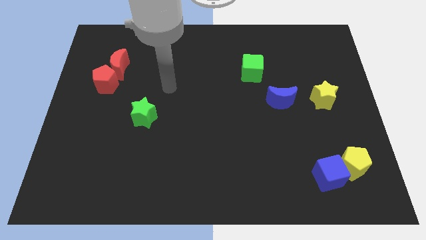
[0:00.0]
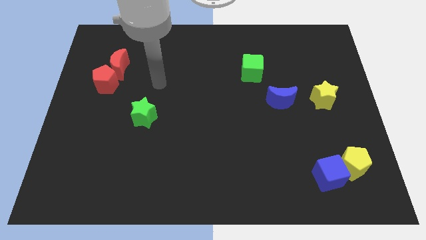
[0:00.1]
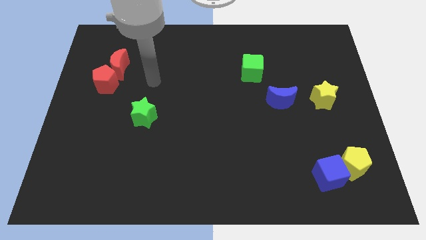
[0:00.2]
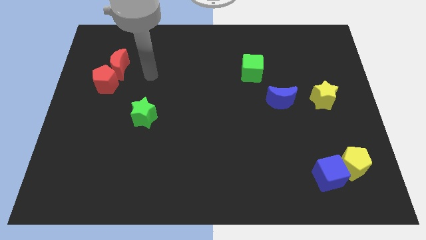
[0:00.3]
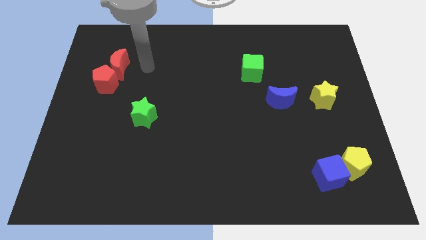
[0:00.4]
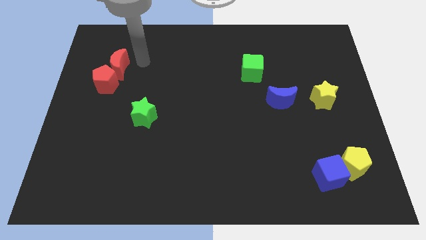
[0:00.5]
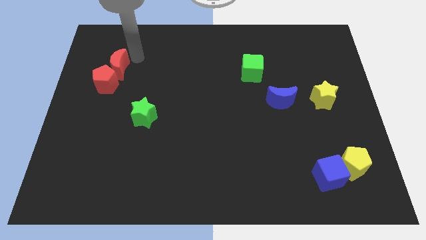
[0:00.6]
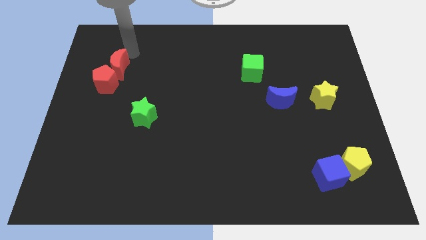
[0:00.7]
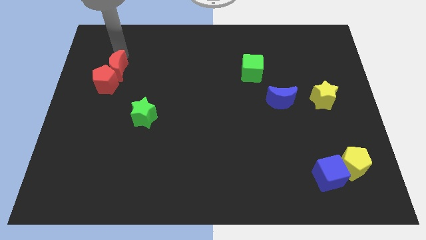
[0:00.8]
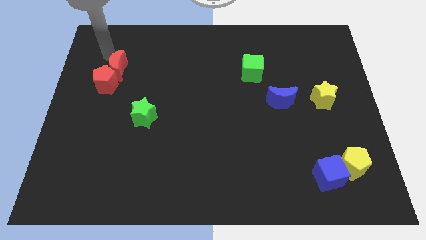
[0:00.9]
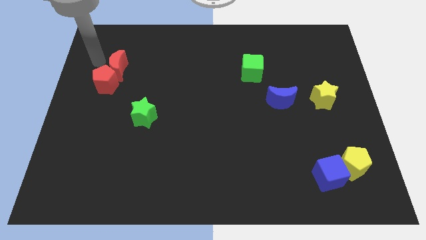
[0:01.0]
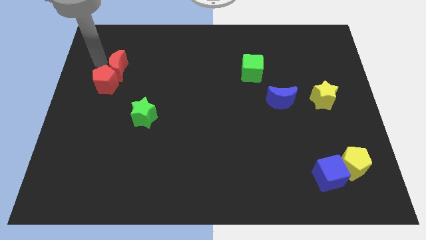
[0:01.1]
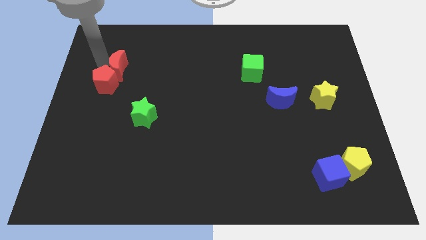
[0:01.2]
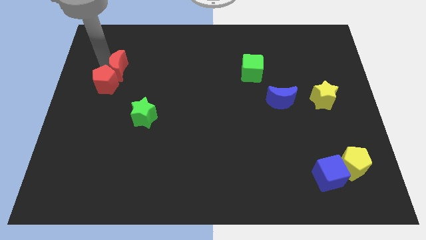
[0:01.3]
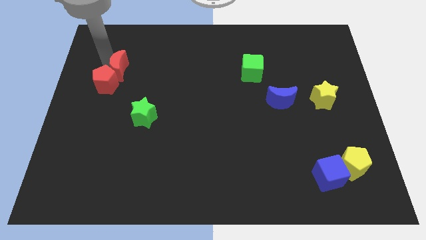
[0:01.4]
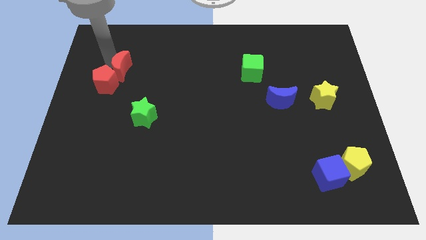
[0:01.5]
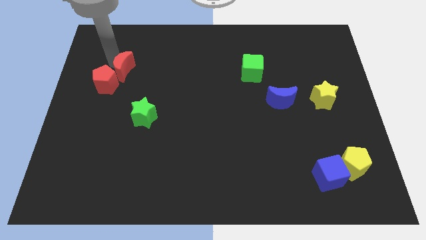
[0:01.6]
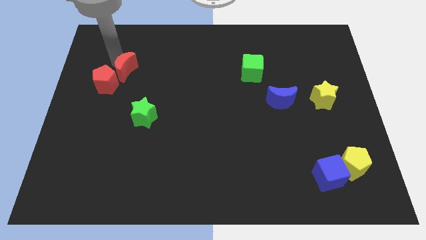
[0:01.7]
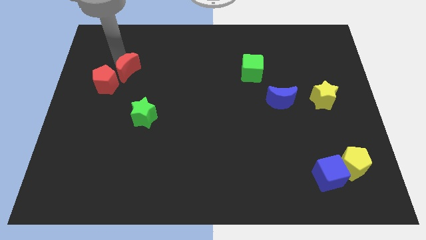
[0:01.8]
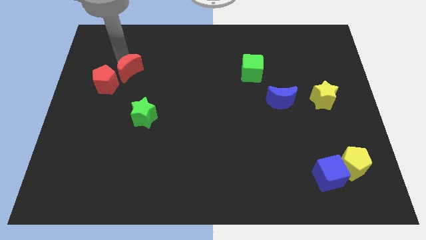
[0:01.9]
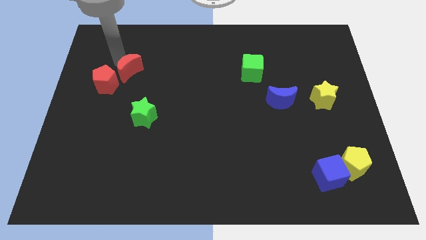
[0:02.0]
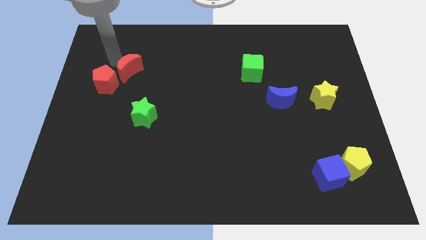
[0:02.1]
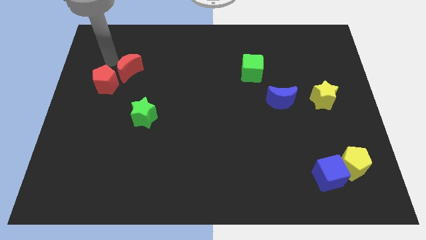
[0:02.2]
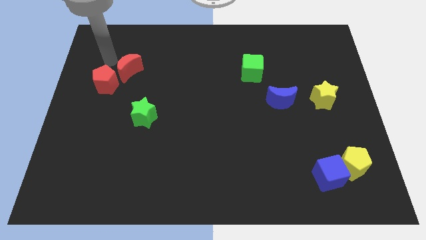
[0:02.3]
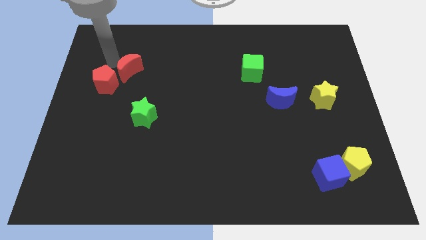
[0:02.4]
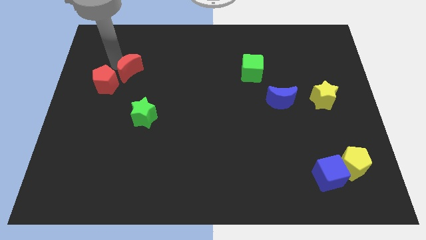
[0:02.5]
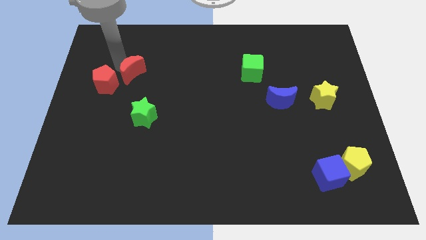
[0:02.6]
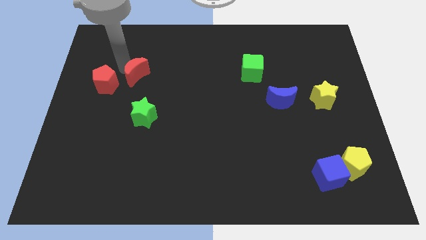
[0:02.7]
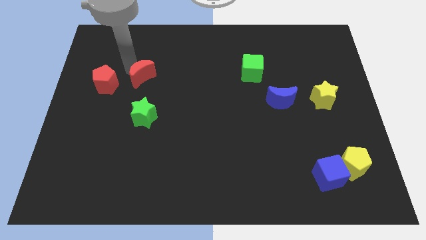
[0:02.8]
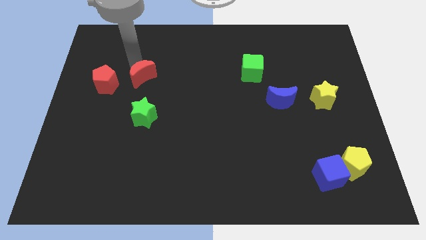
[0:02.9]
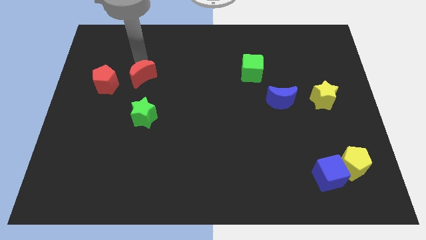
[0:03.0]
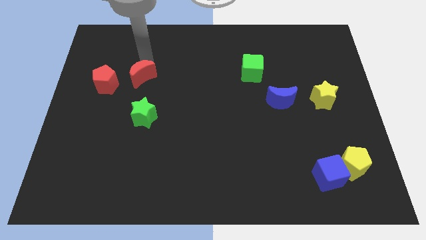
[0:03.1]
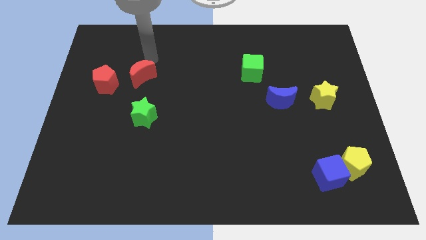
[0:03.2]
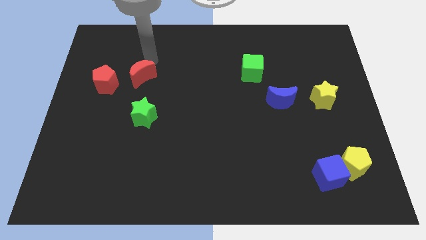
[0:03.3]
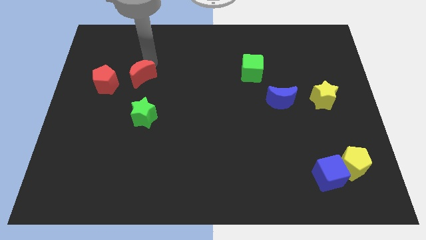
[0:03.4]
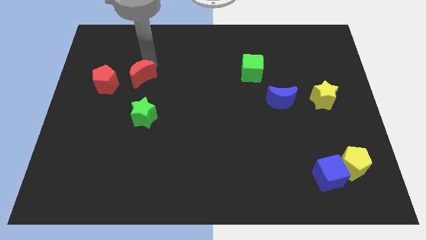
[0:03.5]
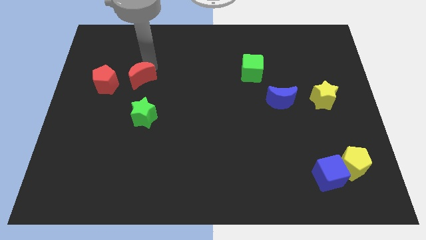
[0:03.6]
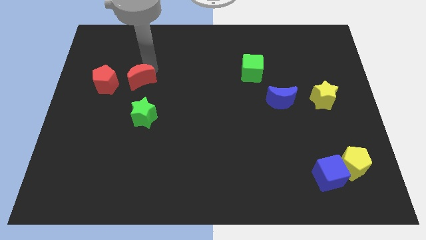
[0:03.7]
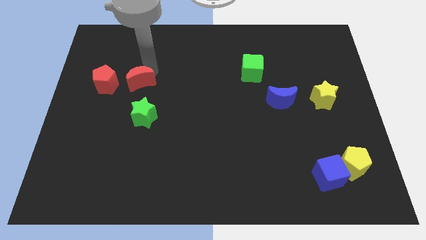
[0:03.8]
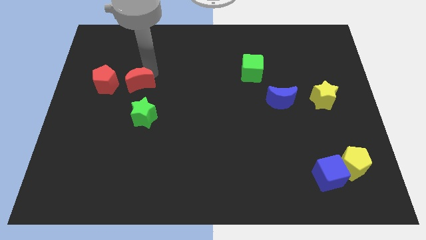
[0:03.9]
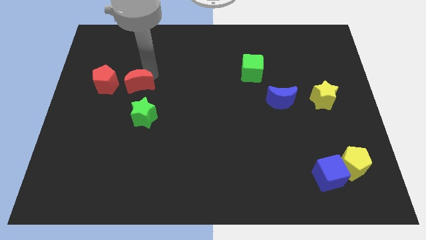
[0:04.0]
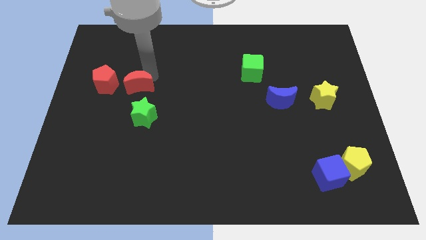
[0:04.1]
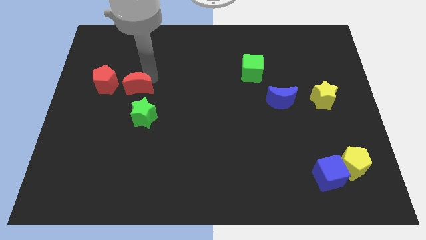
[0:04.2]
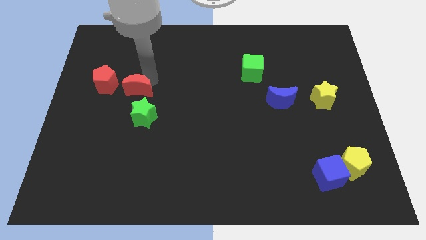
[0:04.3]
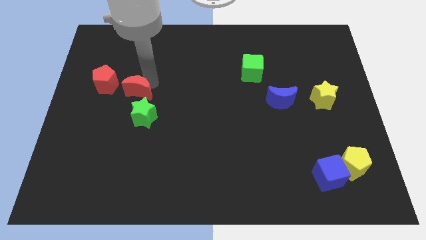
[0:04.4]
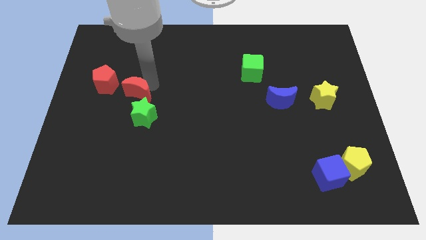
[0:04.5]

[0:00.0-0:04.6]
slightly push the red moon downwards

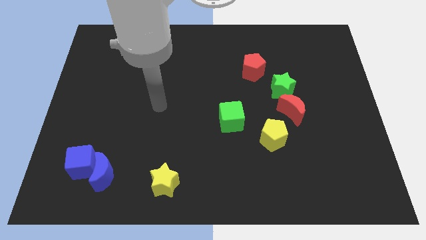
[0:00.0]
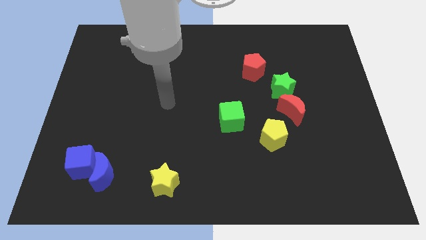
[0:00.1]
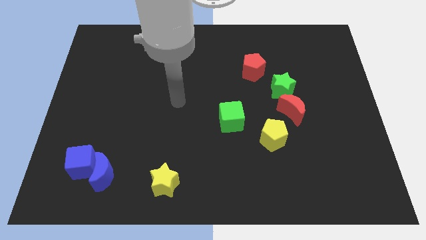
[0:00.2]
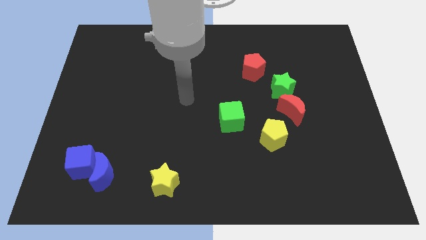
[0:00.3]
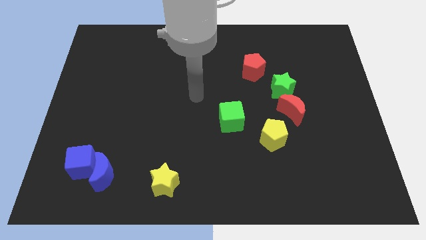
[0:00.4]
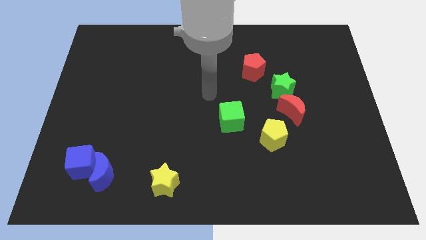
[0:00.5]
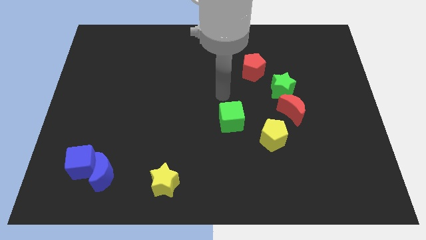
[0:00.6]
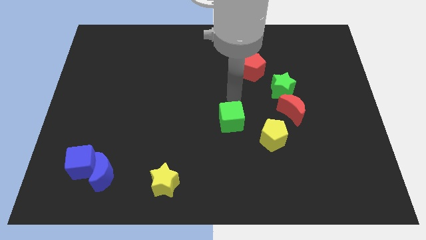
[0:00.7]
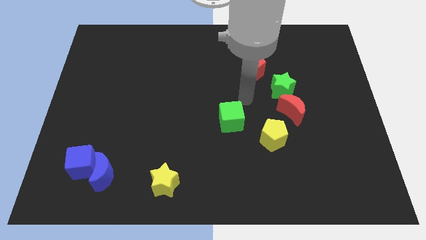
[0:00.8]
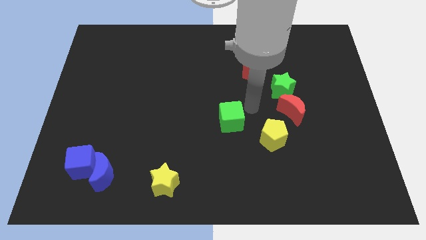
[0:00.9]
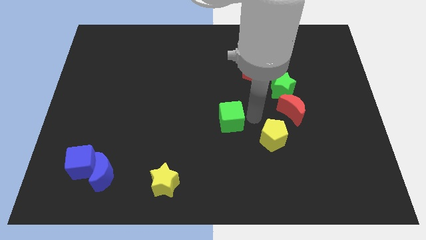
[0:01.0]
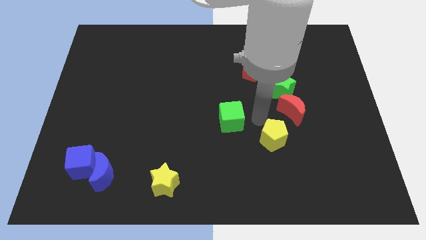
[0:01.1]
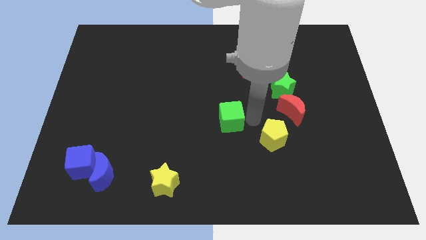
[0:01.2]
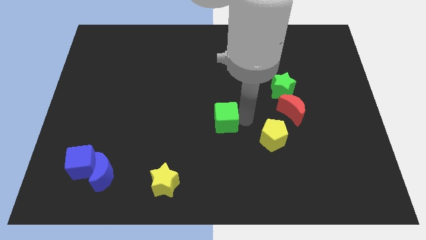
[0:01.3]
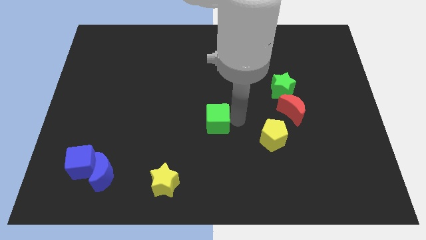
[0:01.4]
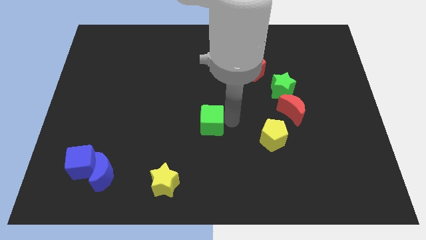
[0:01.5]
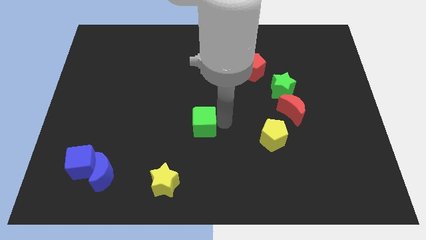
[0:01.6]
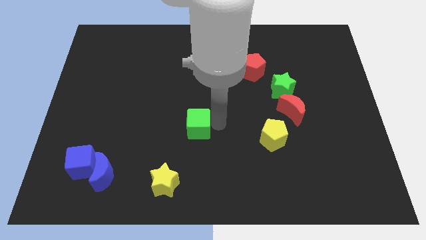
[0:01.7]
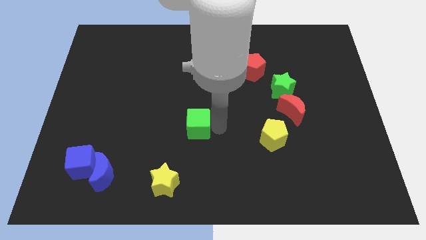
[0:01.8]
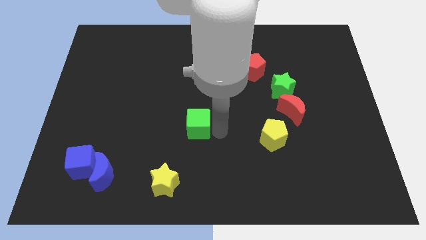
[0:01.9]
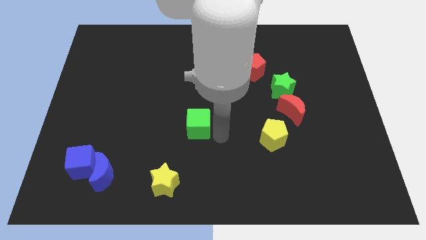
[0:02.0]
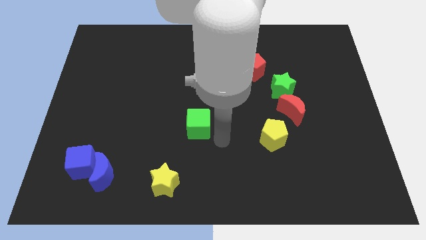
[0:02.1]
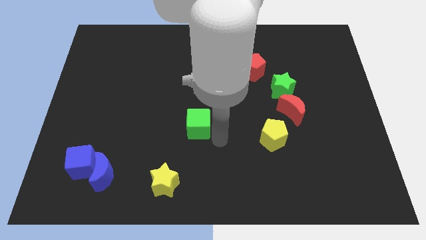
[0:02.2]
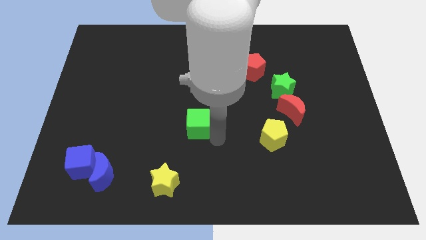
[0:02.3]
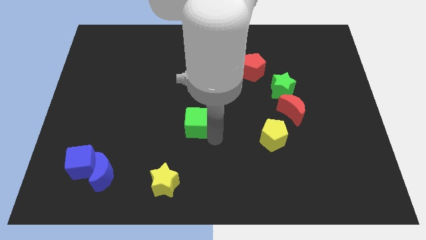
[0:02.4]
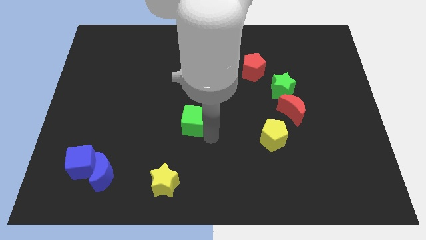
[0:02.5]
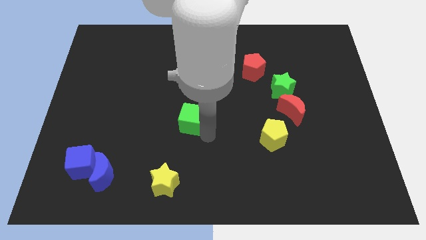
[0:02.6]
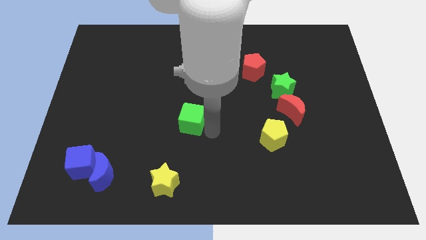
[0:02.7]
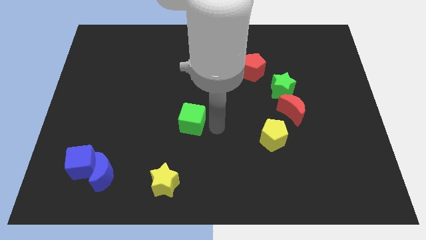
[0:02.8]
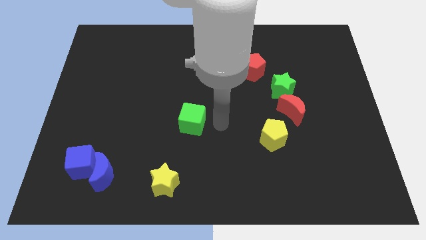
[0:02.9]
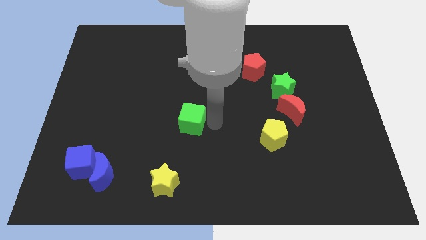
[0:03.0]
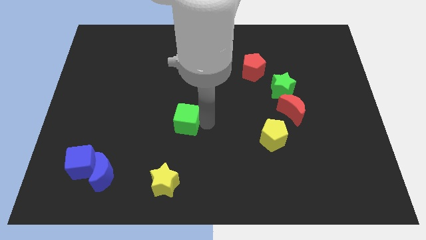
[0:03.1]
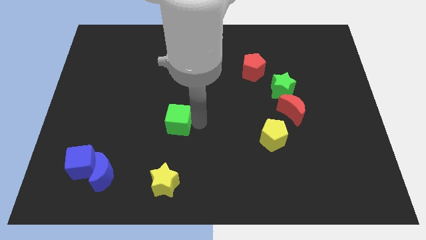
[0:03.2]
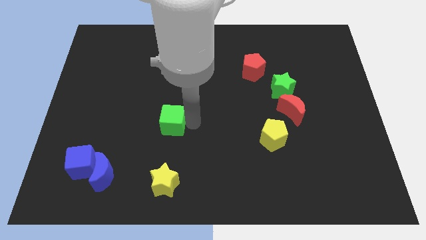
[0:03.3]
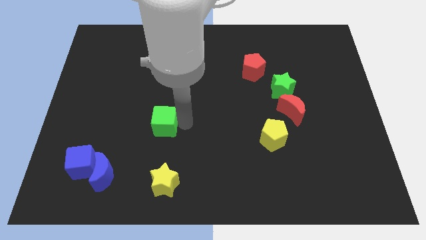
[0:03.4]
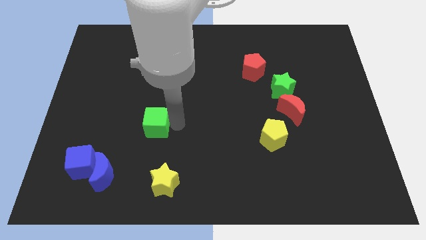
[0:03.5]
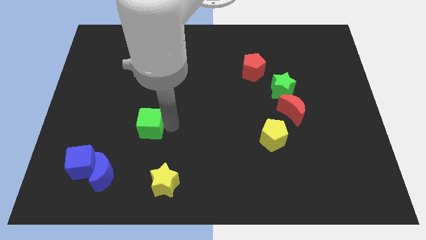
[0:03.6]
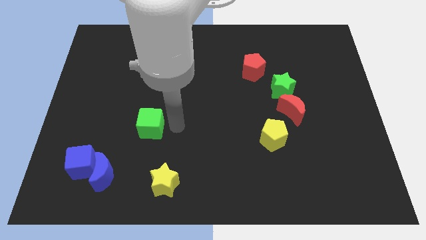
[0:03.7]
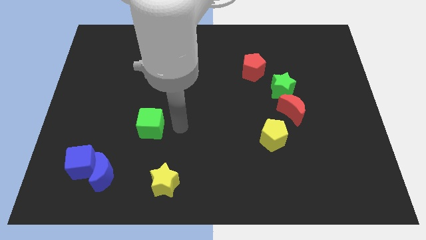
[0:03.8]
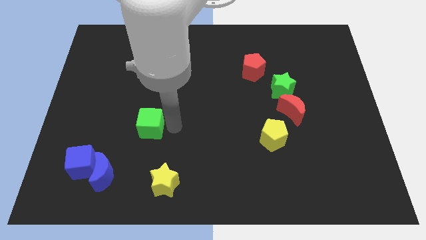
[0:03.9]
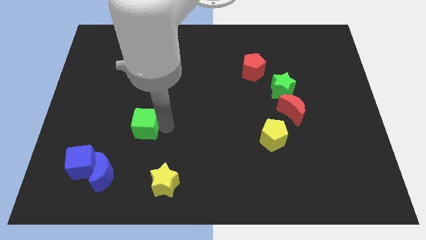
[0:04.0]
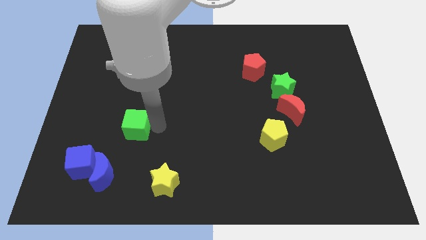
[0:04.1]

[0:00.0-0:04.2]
move the green cube left
